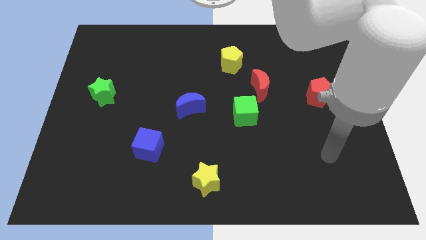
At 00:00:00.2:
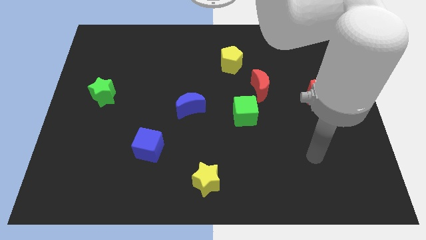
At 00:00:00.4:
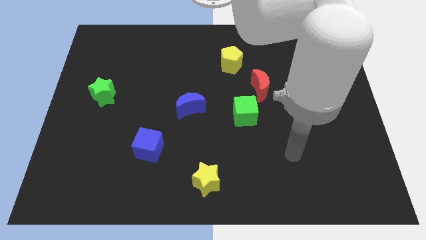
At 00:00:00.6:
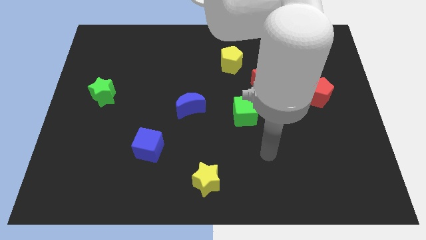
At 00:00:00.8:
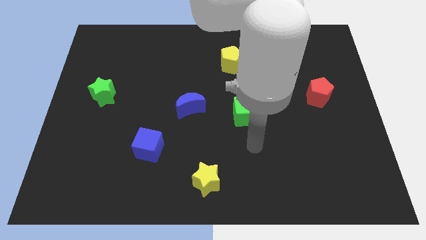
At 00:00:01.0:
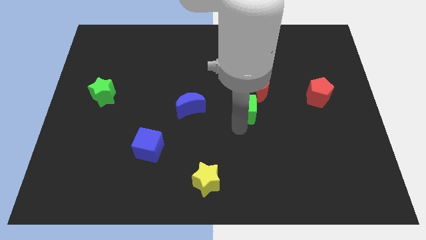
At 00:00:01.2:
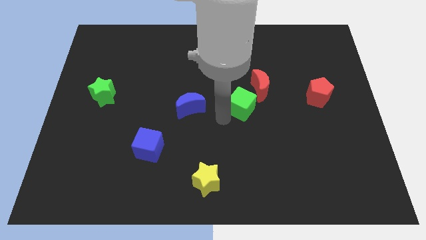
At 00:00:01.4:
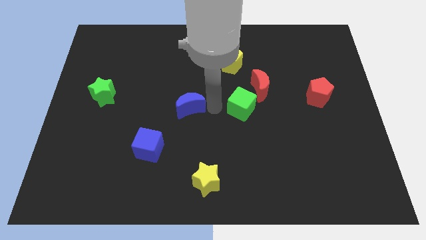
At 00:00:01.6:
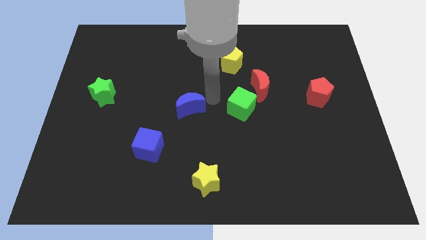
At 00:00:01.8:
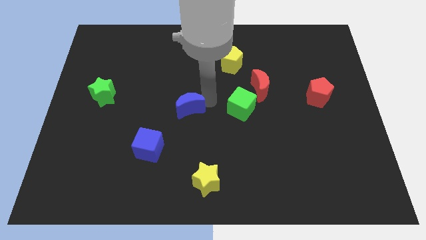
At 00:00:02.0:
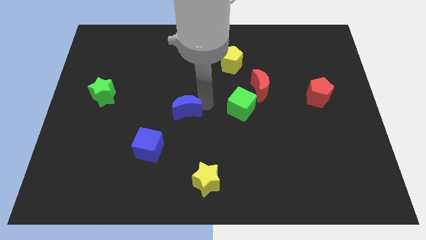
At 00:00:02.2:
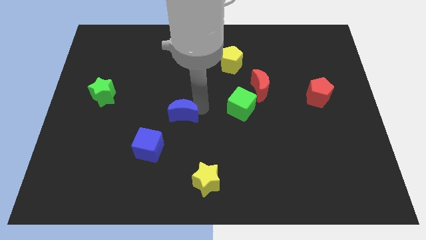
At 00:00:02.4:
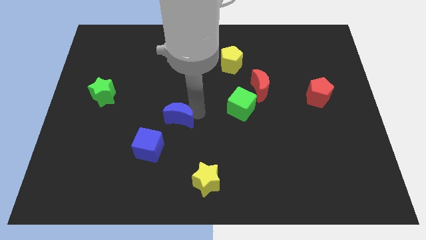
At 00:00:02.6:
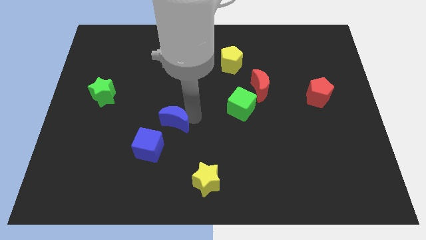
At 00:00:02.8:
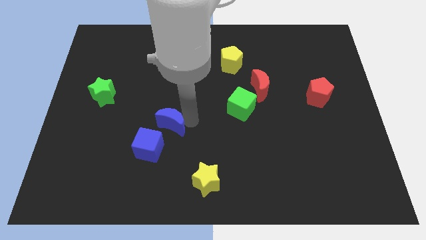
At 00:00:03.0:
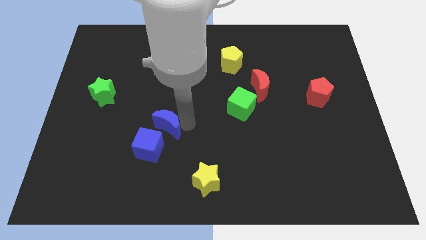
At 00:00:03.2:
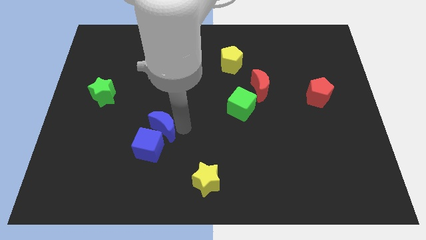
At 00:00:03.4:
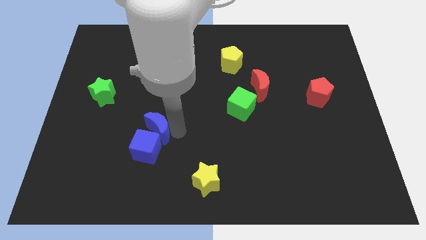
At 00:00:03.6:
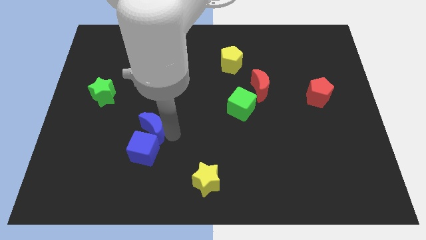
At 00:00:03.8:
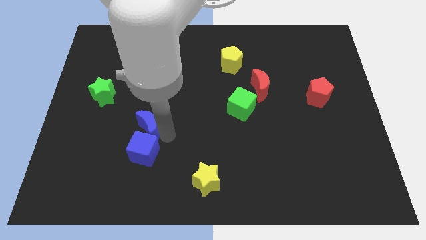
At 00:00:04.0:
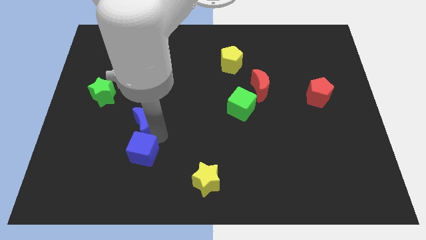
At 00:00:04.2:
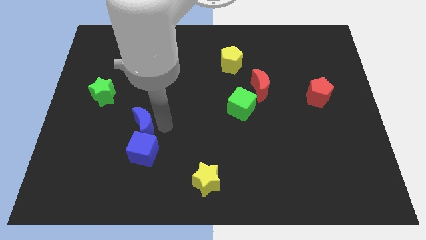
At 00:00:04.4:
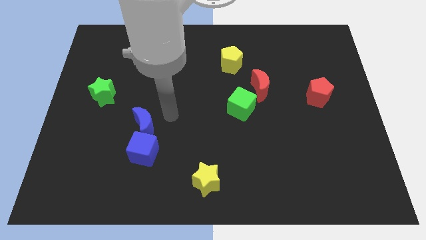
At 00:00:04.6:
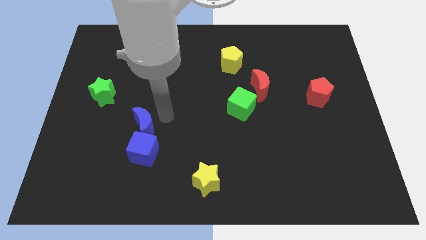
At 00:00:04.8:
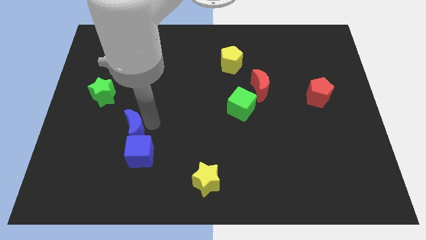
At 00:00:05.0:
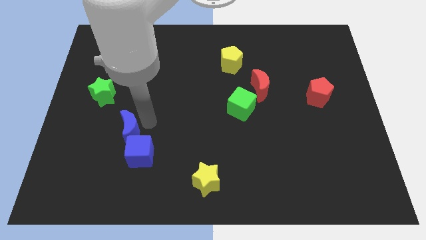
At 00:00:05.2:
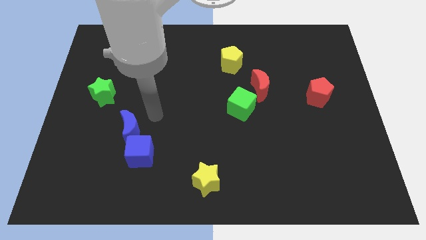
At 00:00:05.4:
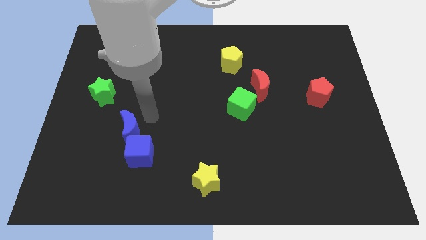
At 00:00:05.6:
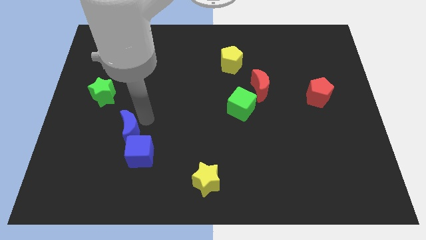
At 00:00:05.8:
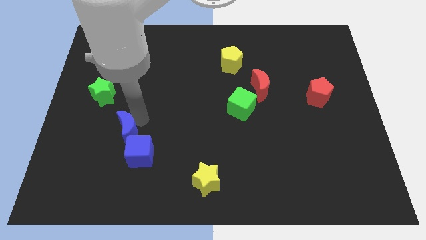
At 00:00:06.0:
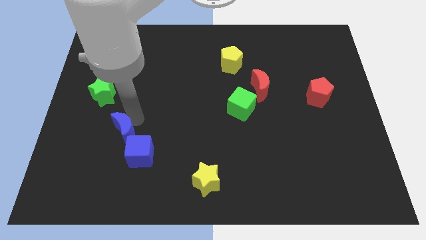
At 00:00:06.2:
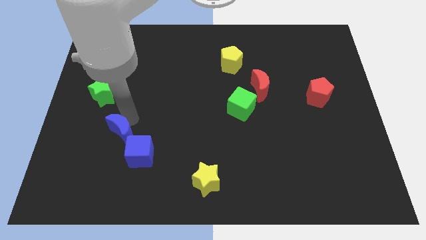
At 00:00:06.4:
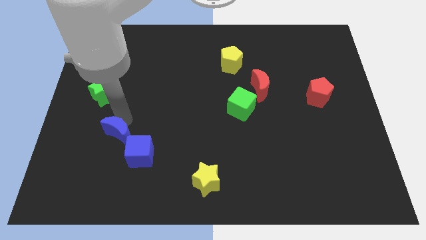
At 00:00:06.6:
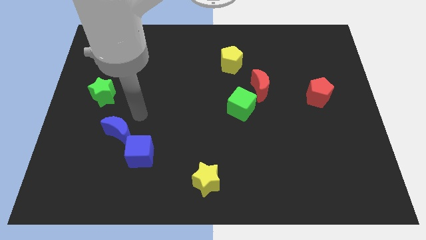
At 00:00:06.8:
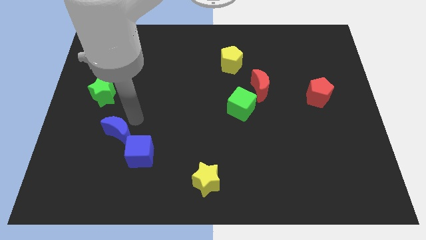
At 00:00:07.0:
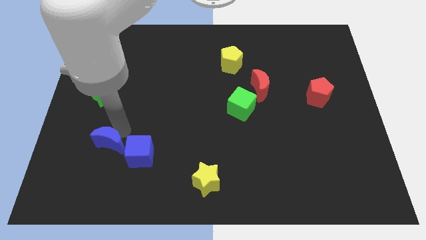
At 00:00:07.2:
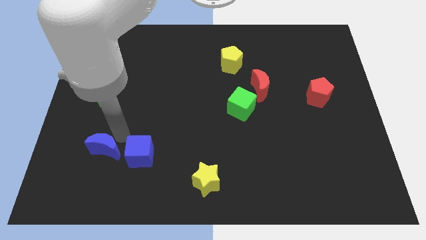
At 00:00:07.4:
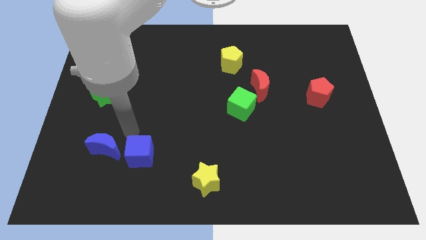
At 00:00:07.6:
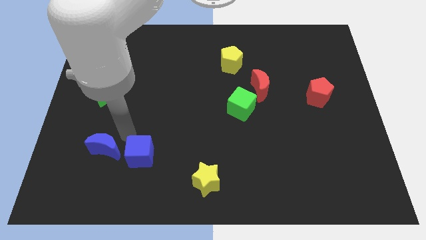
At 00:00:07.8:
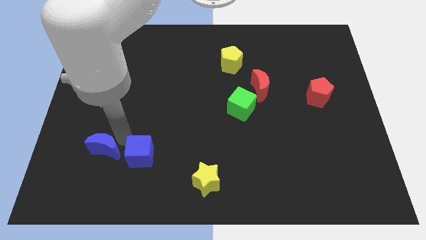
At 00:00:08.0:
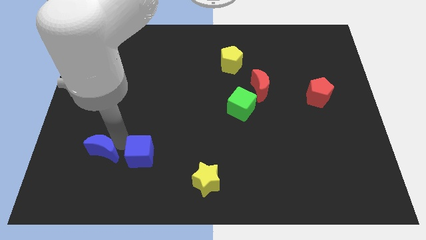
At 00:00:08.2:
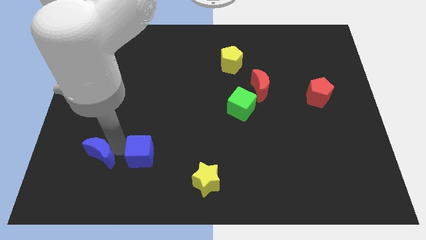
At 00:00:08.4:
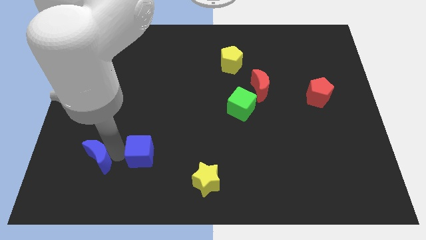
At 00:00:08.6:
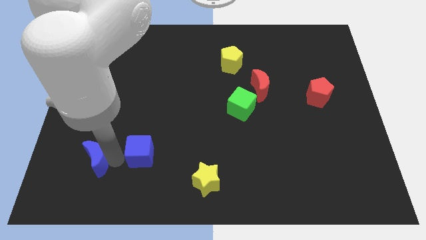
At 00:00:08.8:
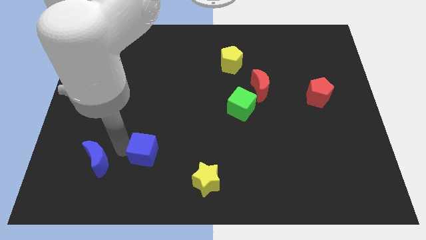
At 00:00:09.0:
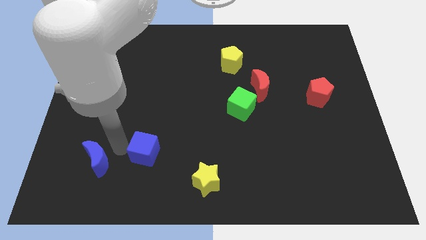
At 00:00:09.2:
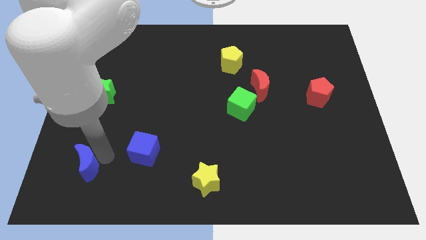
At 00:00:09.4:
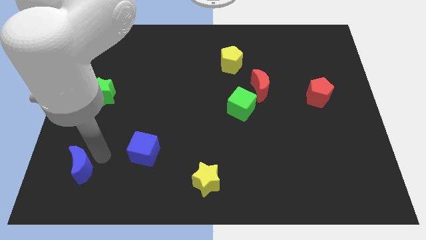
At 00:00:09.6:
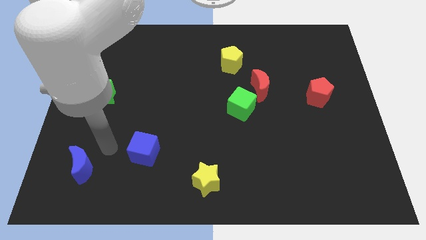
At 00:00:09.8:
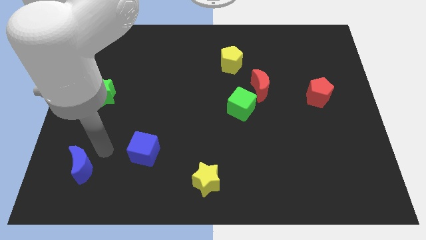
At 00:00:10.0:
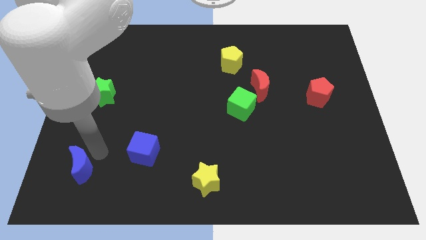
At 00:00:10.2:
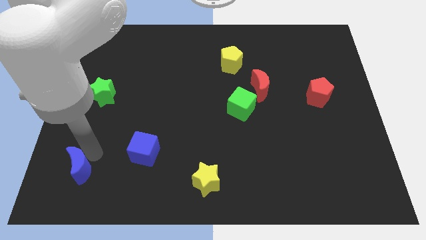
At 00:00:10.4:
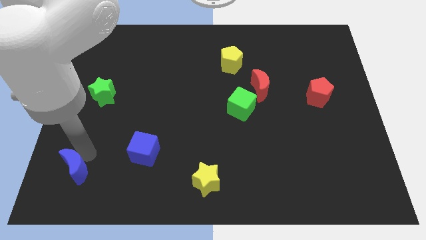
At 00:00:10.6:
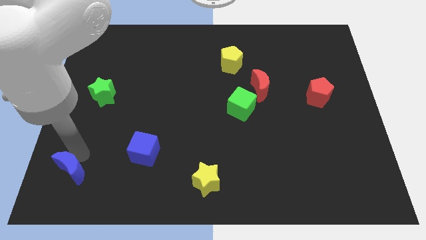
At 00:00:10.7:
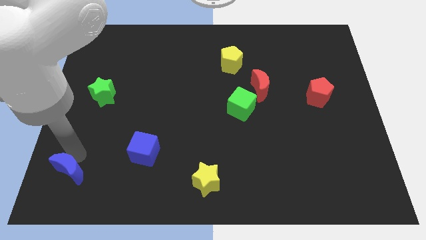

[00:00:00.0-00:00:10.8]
push the blue moon to the bottom left

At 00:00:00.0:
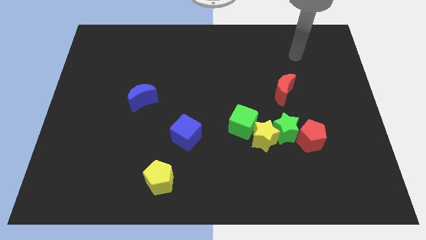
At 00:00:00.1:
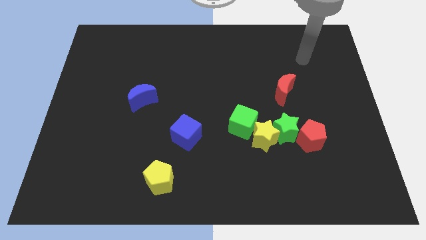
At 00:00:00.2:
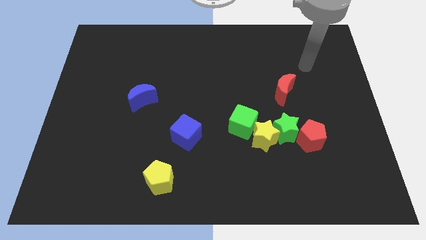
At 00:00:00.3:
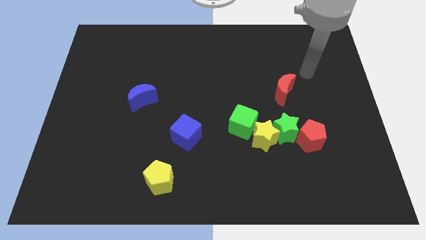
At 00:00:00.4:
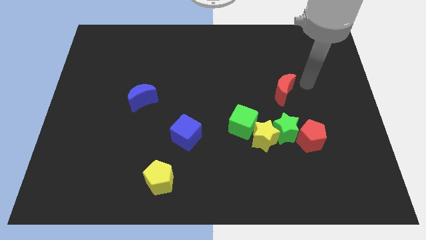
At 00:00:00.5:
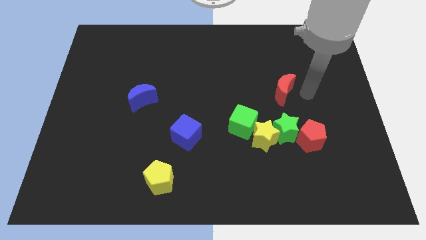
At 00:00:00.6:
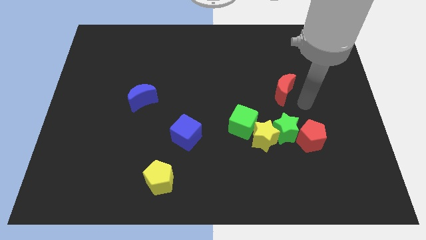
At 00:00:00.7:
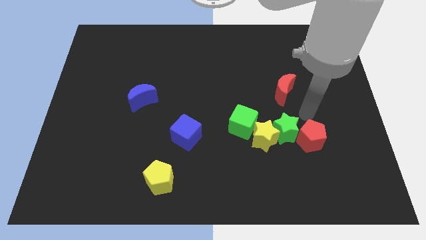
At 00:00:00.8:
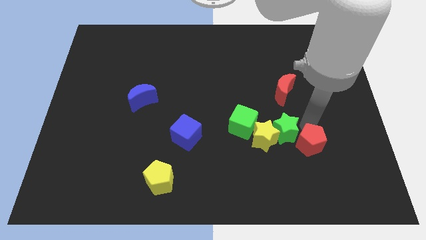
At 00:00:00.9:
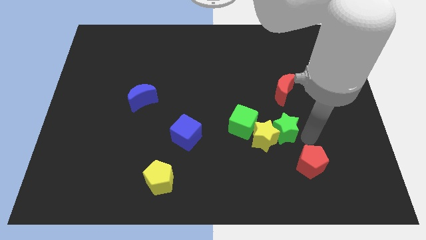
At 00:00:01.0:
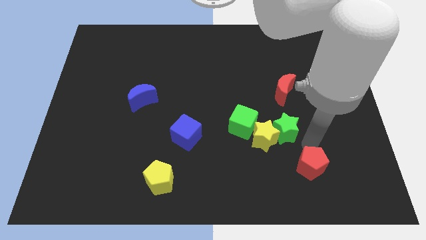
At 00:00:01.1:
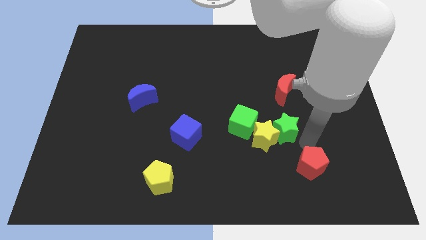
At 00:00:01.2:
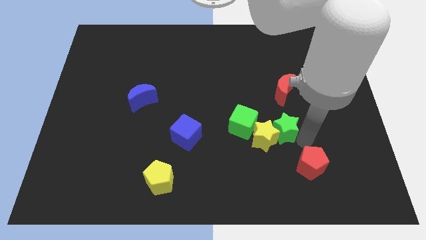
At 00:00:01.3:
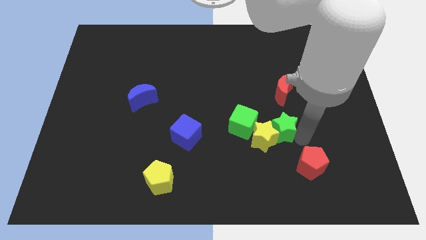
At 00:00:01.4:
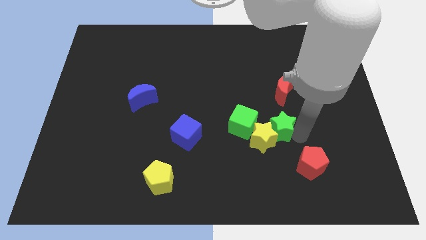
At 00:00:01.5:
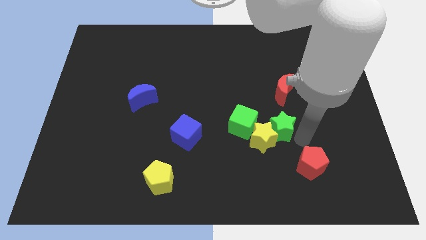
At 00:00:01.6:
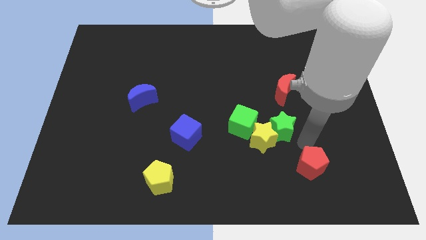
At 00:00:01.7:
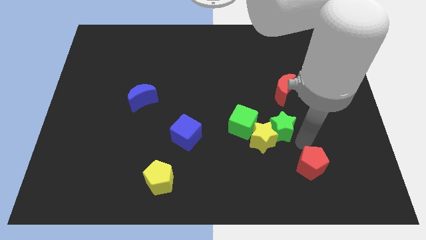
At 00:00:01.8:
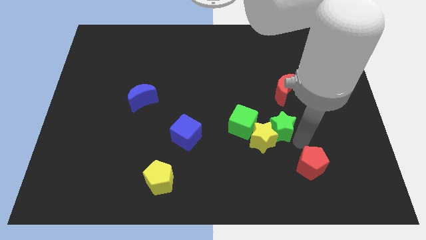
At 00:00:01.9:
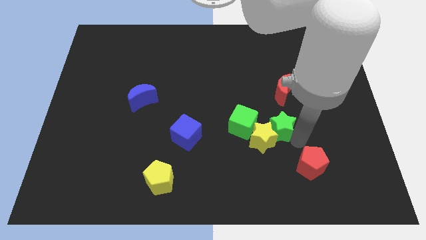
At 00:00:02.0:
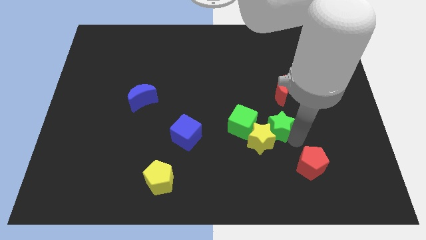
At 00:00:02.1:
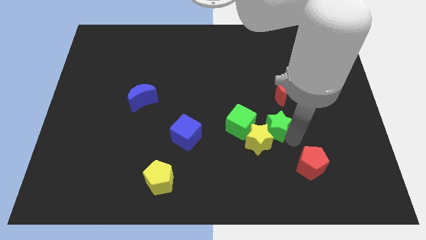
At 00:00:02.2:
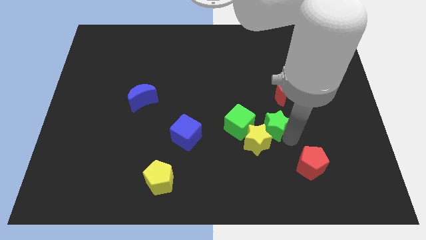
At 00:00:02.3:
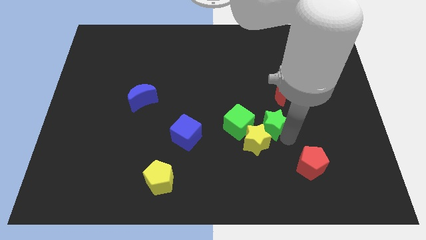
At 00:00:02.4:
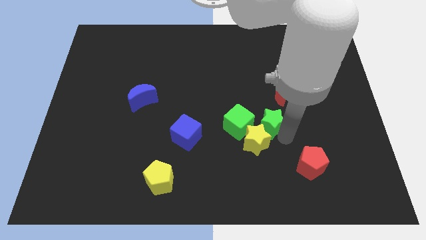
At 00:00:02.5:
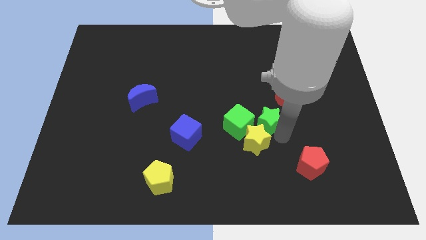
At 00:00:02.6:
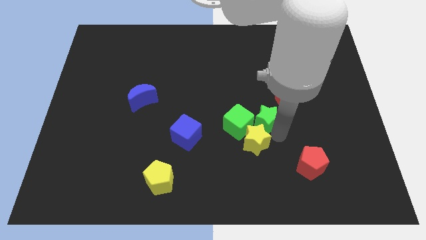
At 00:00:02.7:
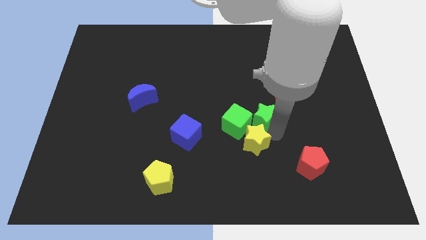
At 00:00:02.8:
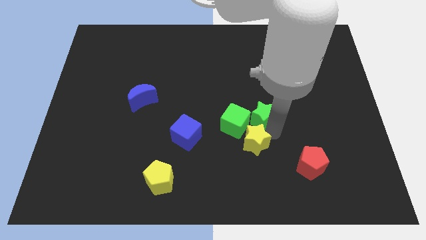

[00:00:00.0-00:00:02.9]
move the green star to the center of the board
